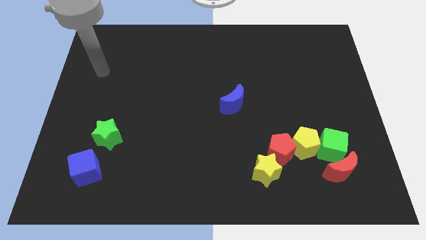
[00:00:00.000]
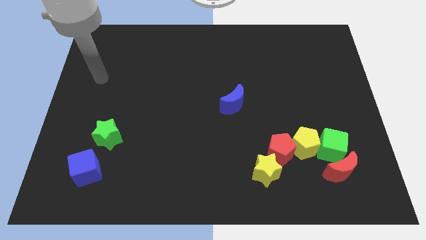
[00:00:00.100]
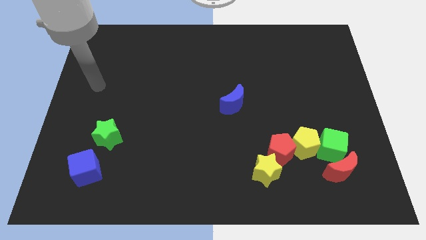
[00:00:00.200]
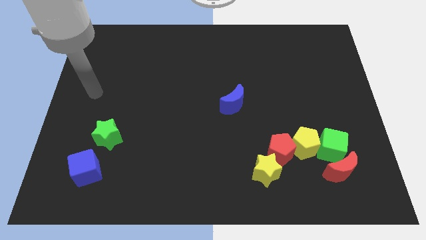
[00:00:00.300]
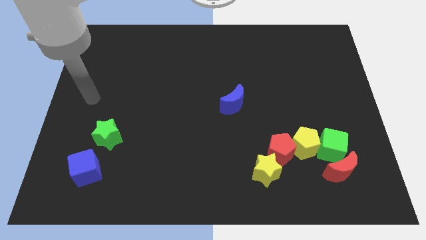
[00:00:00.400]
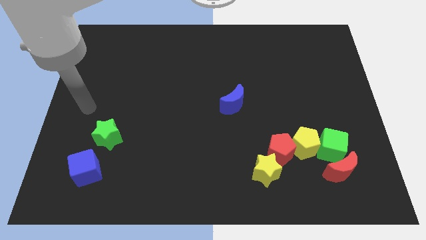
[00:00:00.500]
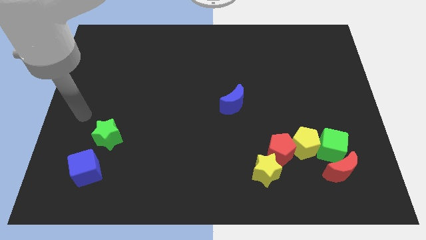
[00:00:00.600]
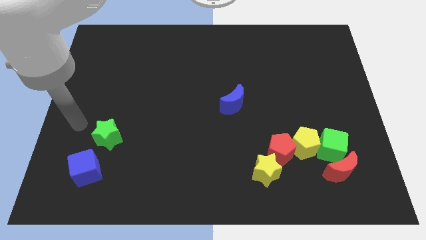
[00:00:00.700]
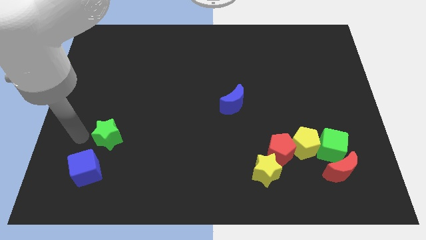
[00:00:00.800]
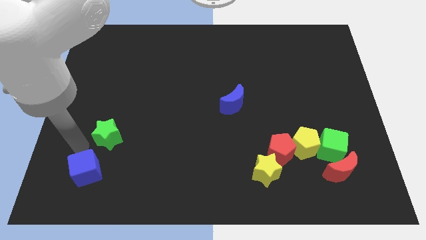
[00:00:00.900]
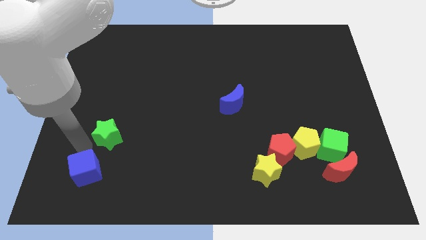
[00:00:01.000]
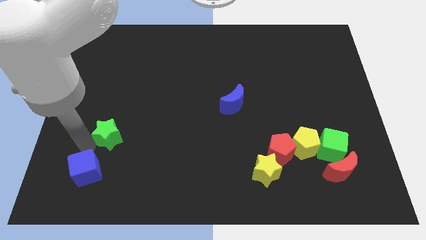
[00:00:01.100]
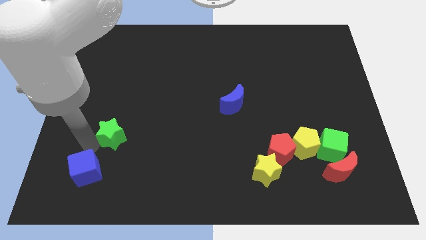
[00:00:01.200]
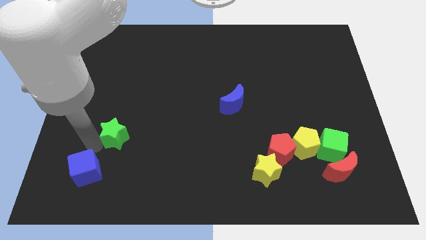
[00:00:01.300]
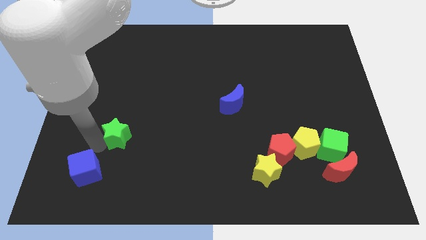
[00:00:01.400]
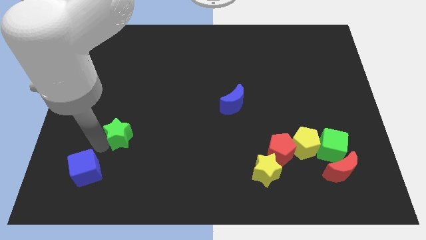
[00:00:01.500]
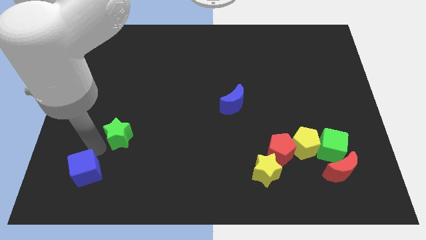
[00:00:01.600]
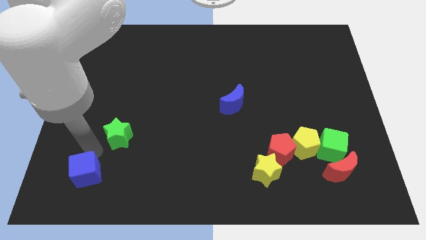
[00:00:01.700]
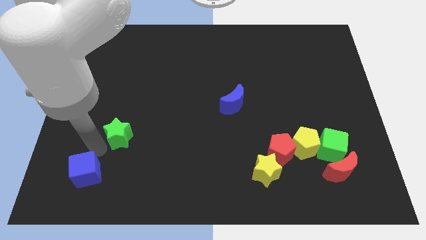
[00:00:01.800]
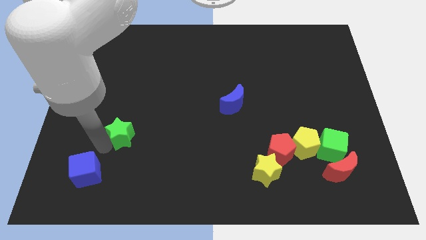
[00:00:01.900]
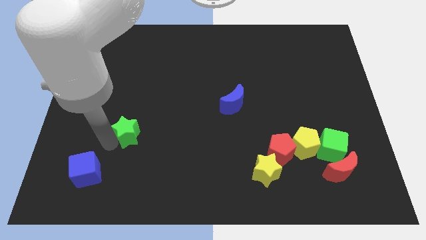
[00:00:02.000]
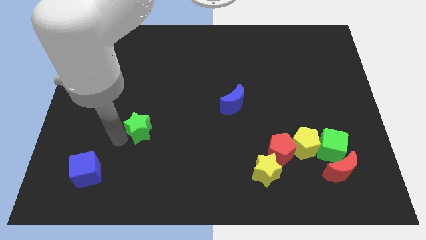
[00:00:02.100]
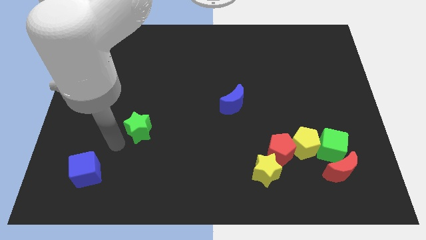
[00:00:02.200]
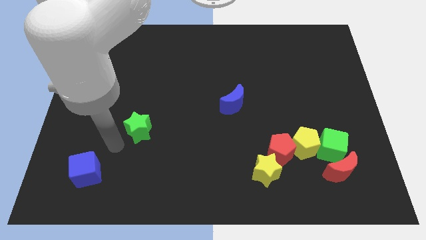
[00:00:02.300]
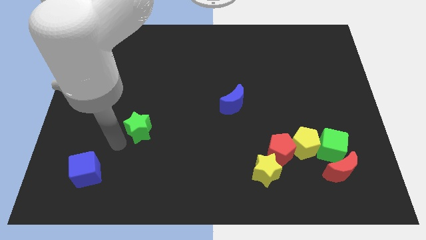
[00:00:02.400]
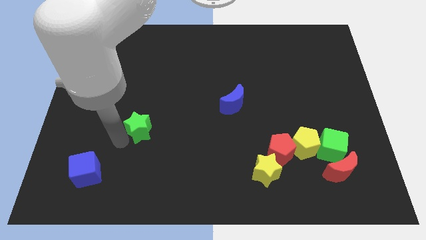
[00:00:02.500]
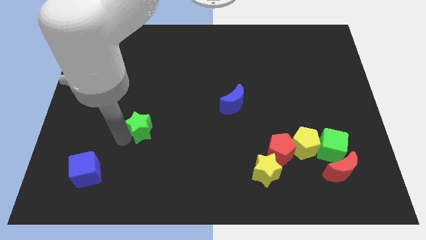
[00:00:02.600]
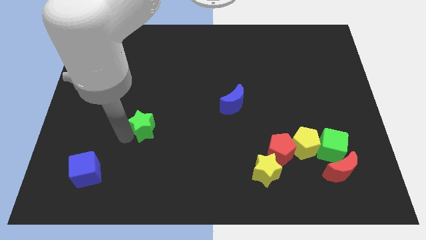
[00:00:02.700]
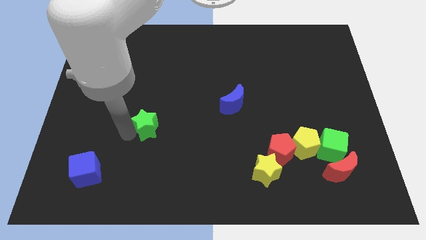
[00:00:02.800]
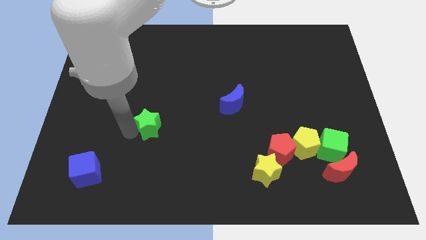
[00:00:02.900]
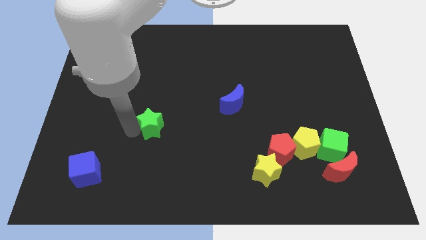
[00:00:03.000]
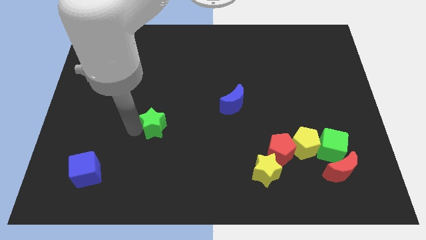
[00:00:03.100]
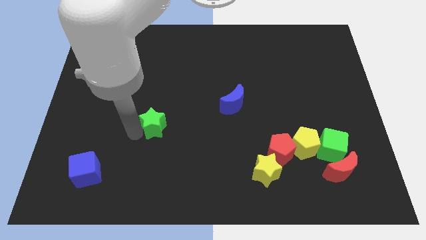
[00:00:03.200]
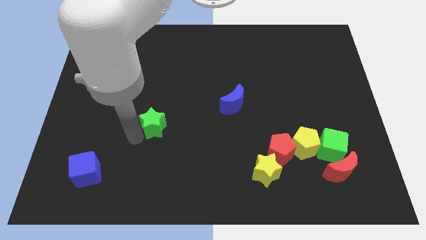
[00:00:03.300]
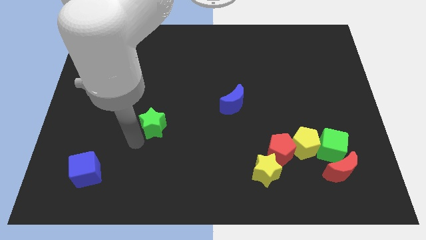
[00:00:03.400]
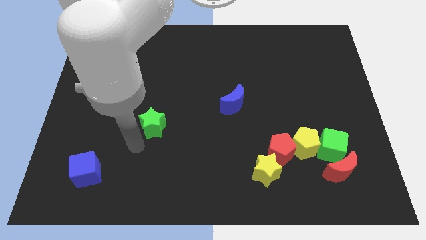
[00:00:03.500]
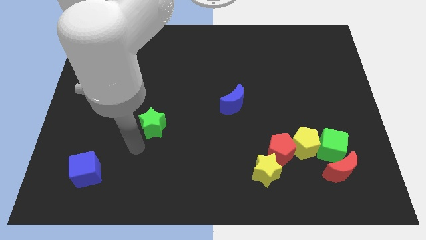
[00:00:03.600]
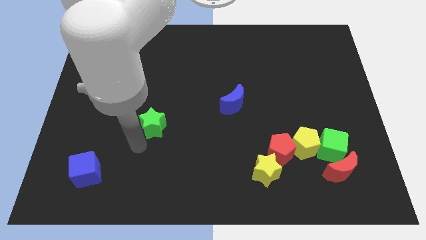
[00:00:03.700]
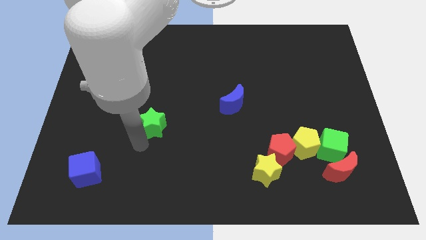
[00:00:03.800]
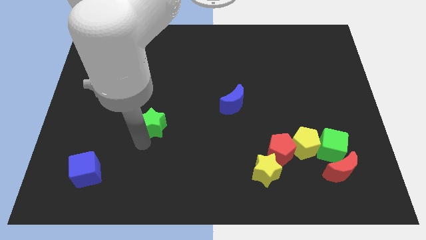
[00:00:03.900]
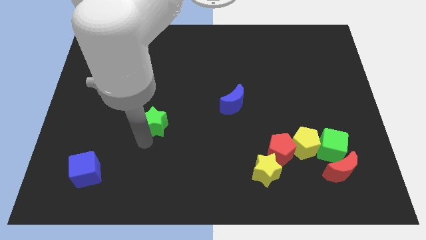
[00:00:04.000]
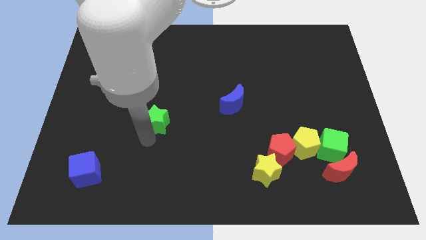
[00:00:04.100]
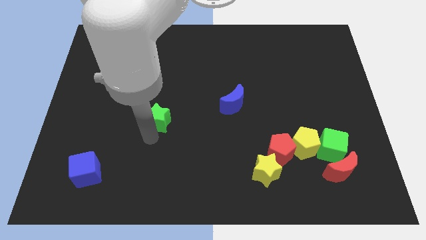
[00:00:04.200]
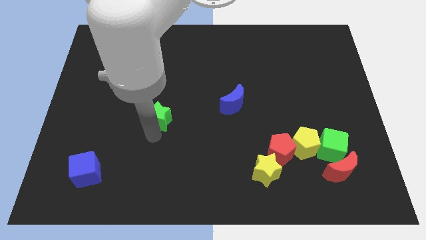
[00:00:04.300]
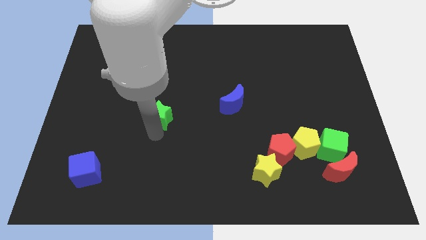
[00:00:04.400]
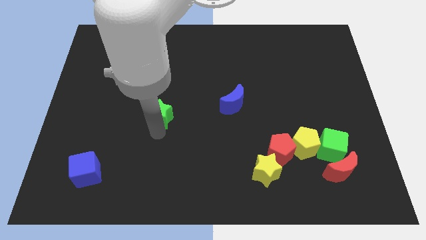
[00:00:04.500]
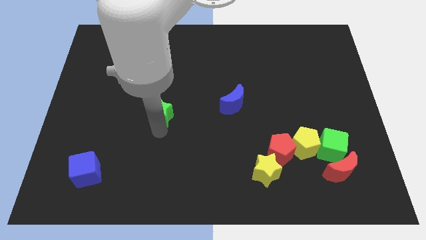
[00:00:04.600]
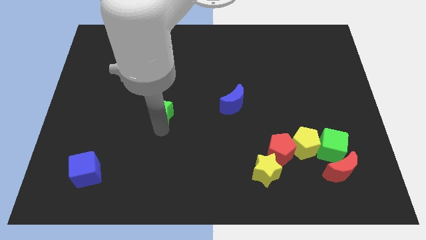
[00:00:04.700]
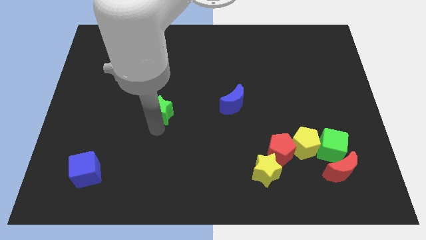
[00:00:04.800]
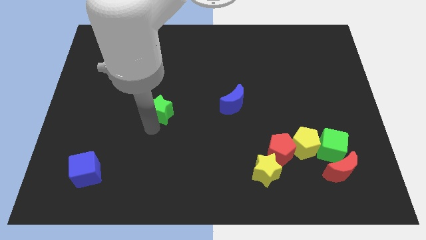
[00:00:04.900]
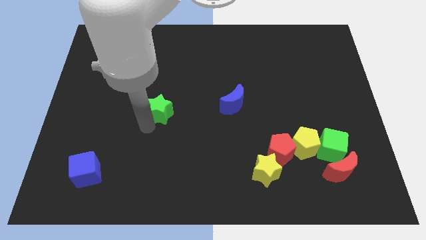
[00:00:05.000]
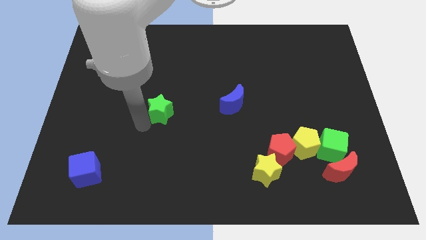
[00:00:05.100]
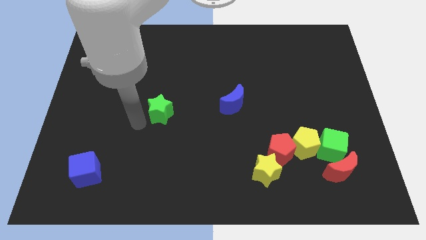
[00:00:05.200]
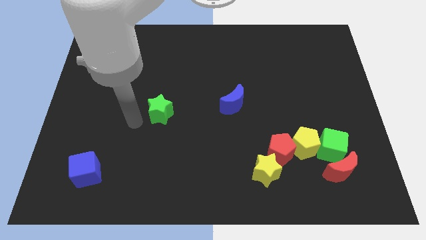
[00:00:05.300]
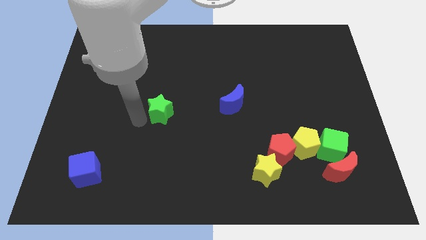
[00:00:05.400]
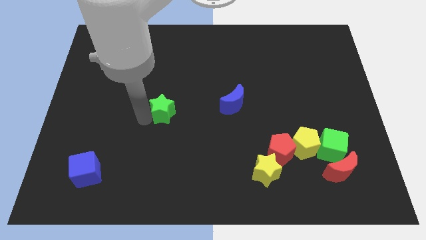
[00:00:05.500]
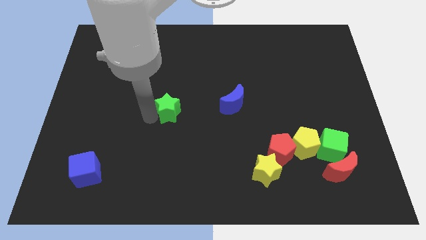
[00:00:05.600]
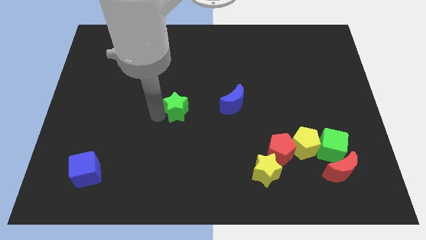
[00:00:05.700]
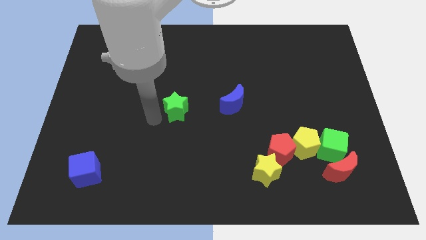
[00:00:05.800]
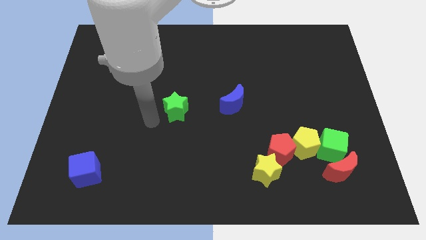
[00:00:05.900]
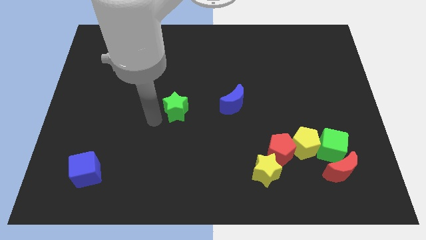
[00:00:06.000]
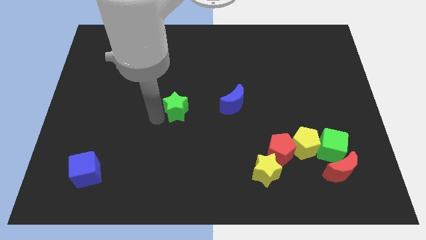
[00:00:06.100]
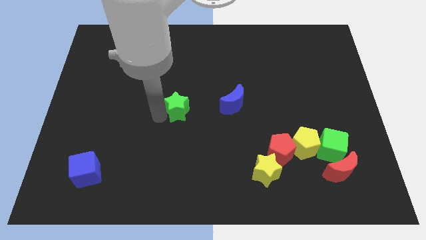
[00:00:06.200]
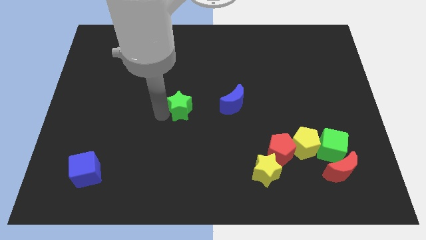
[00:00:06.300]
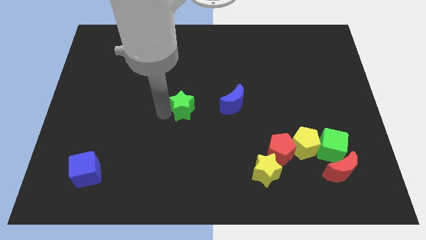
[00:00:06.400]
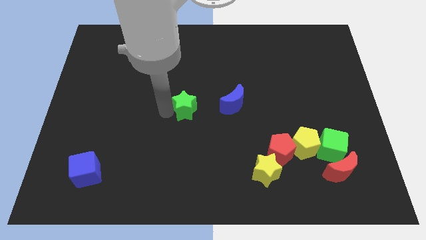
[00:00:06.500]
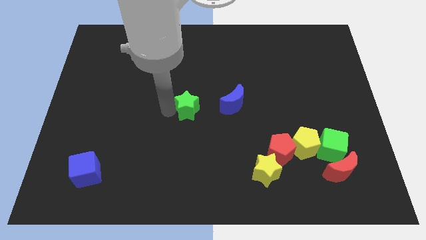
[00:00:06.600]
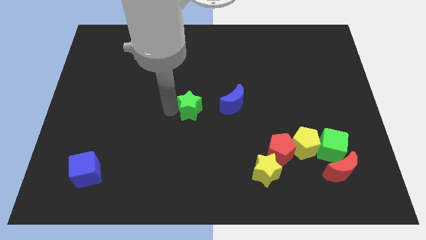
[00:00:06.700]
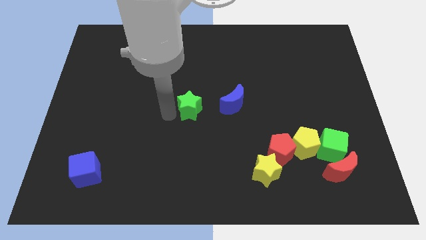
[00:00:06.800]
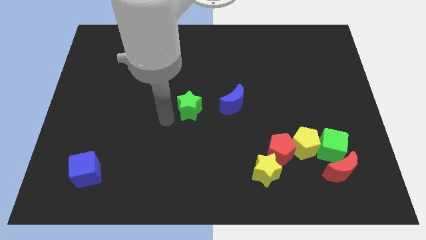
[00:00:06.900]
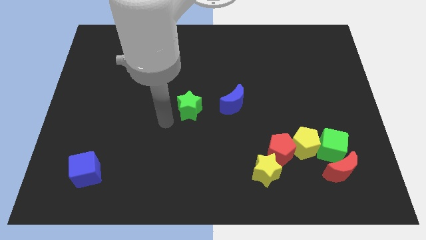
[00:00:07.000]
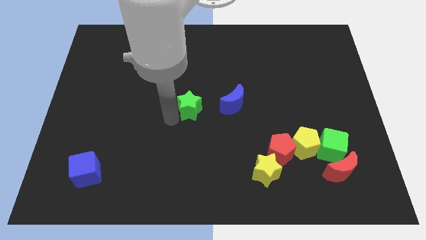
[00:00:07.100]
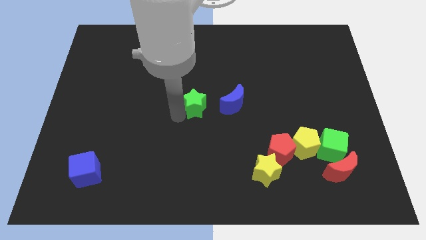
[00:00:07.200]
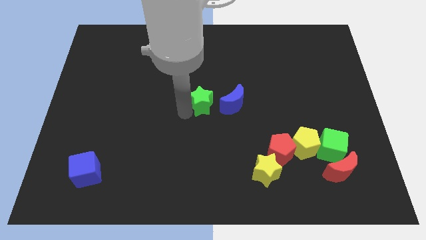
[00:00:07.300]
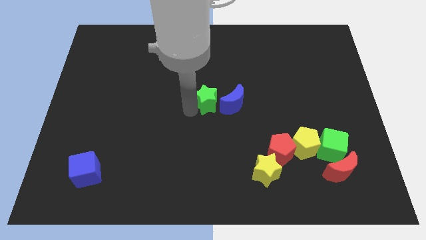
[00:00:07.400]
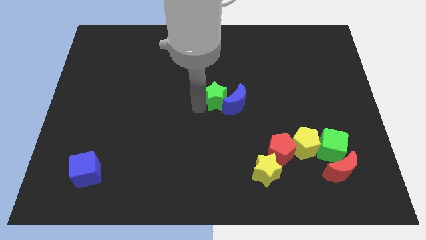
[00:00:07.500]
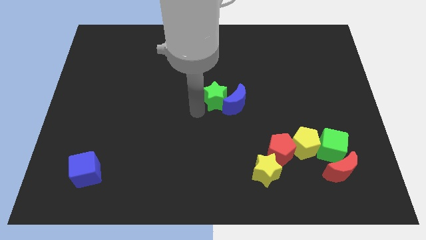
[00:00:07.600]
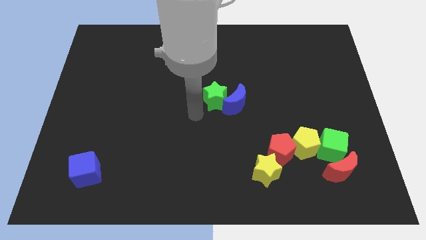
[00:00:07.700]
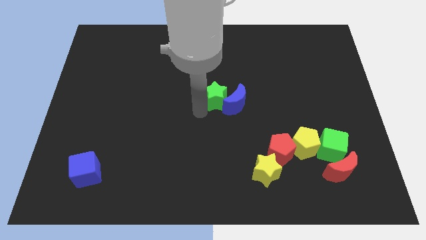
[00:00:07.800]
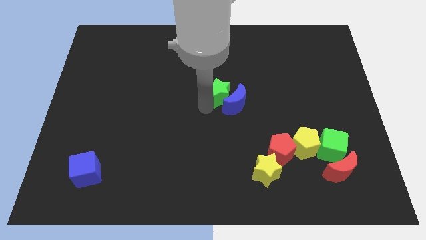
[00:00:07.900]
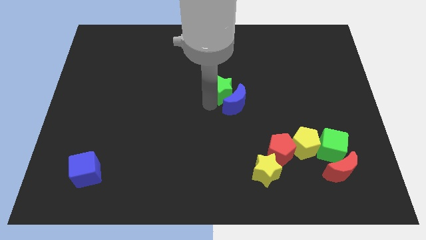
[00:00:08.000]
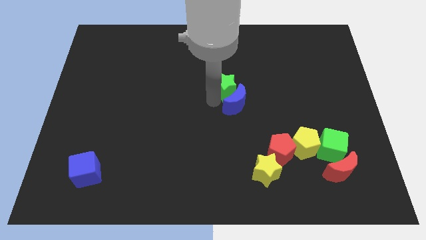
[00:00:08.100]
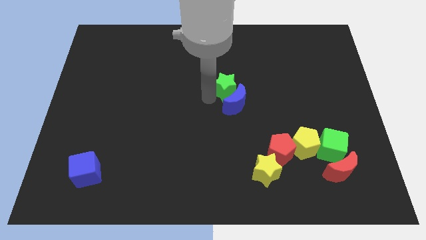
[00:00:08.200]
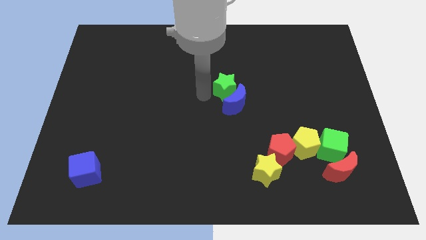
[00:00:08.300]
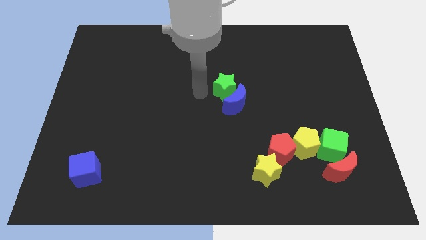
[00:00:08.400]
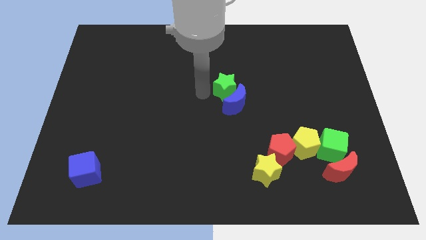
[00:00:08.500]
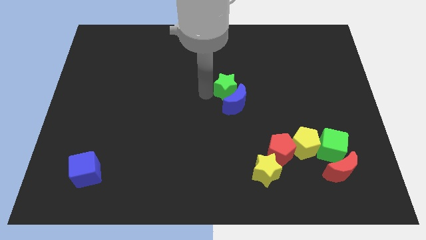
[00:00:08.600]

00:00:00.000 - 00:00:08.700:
put the green star diagonally up and to the right of the blue moon
